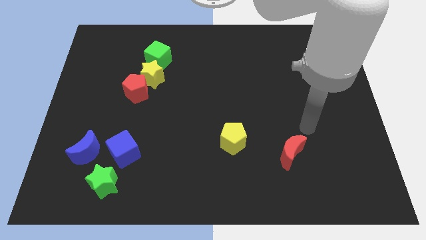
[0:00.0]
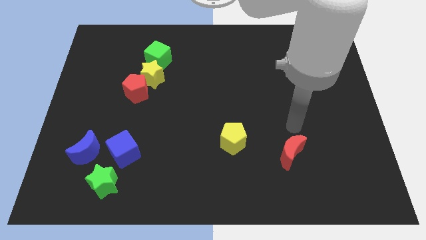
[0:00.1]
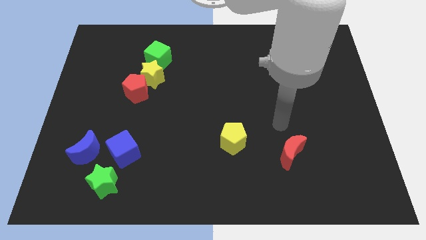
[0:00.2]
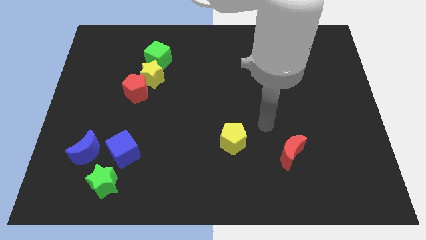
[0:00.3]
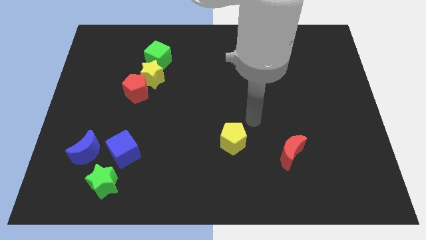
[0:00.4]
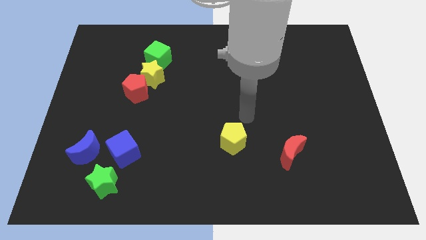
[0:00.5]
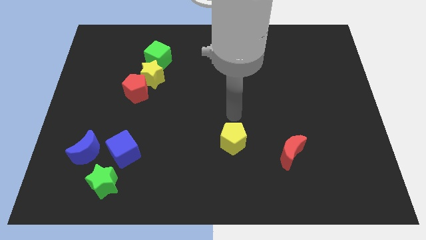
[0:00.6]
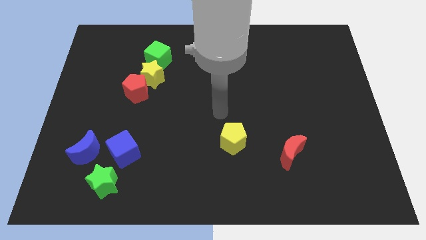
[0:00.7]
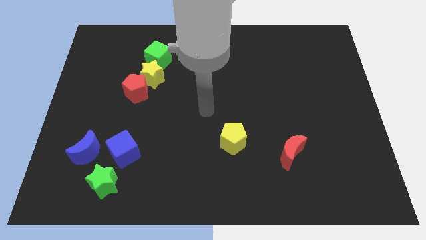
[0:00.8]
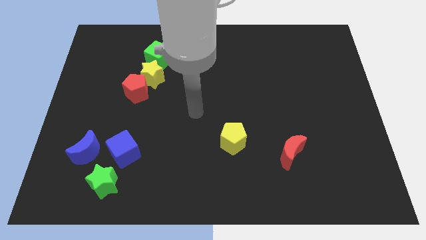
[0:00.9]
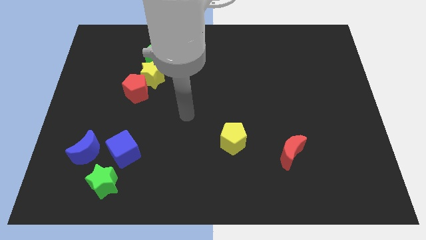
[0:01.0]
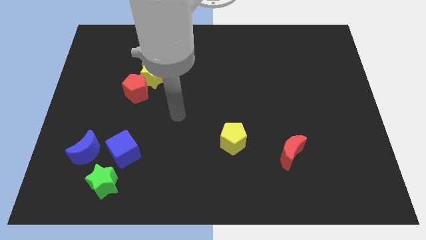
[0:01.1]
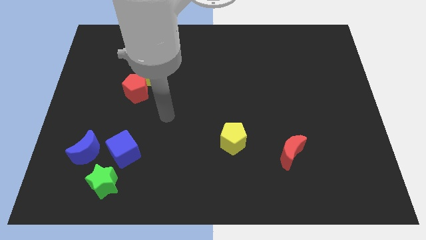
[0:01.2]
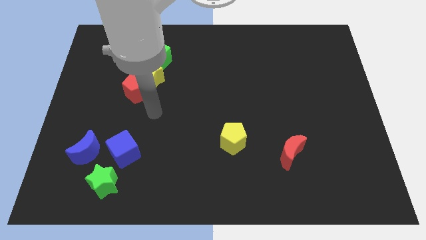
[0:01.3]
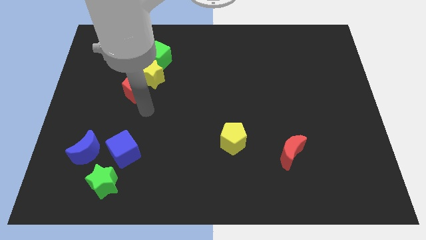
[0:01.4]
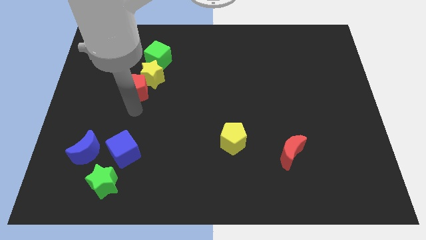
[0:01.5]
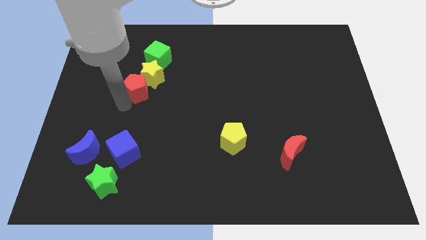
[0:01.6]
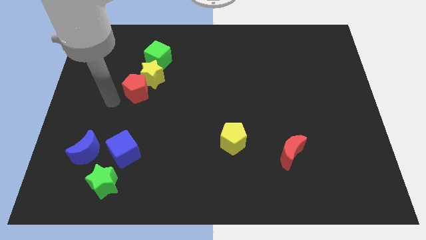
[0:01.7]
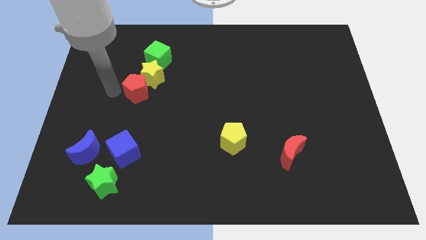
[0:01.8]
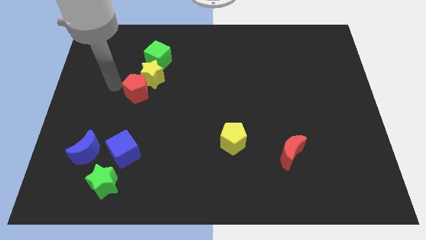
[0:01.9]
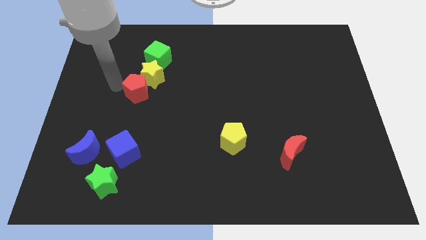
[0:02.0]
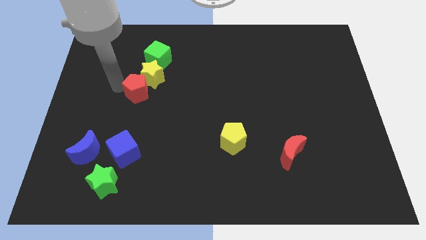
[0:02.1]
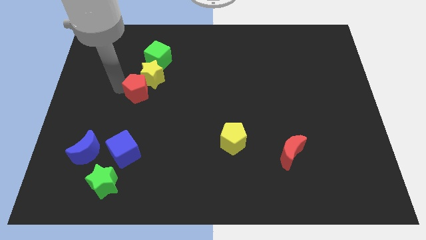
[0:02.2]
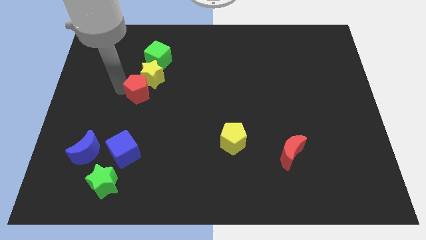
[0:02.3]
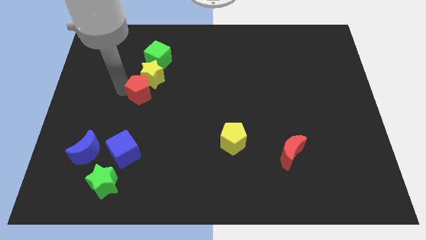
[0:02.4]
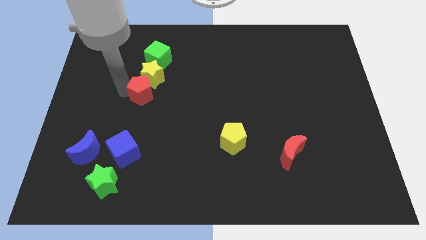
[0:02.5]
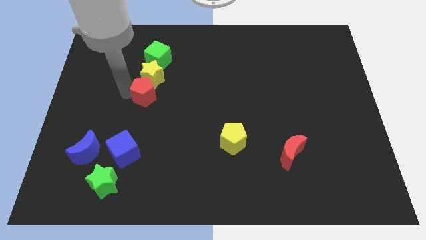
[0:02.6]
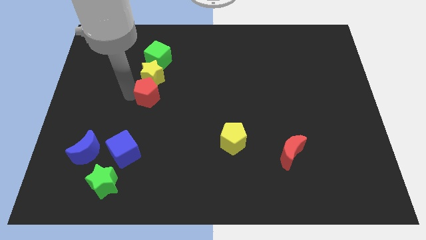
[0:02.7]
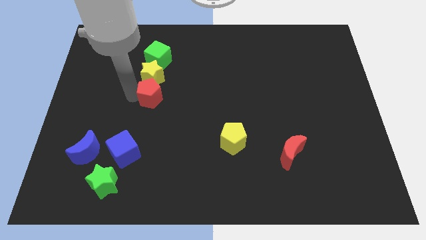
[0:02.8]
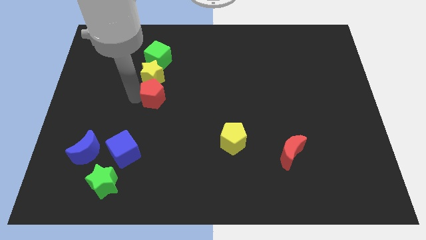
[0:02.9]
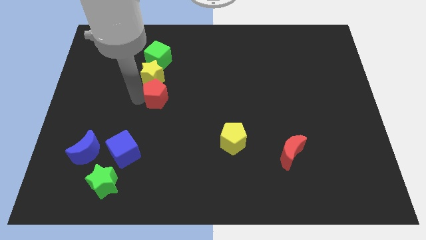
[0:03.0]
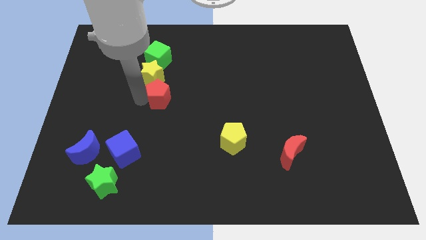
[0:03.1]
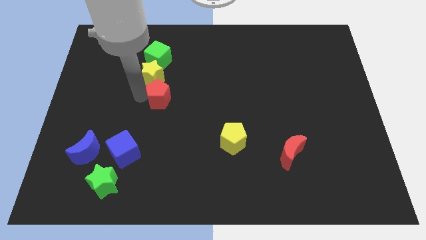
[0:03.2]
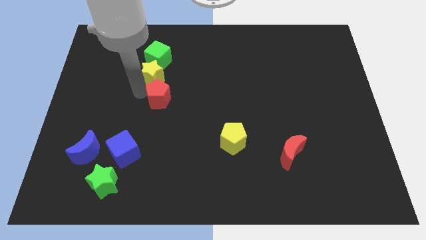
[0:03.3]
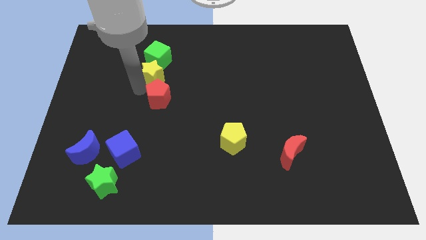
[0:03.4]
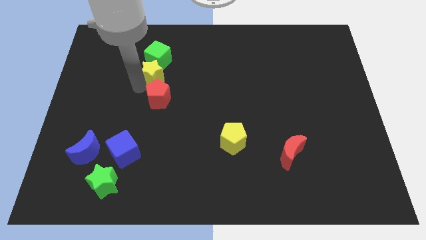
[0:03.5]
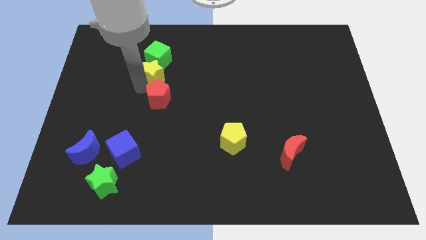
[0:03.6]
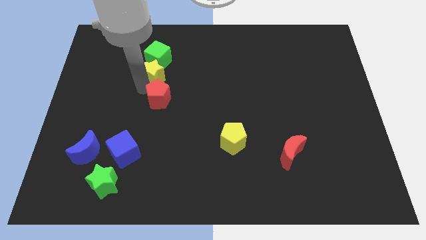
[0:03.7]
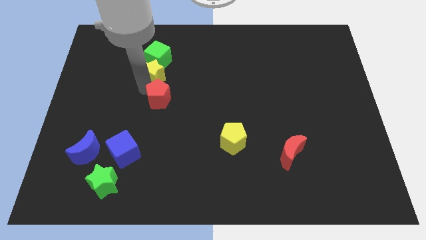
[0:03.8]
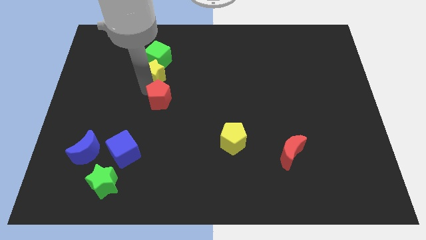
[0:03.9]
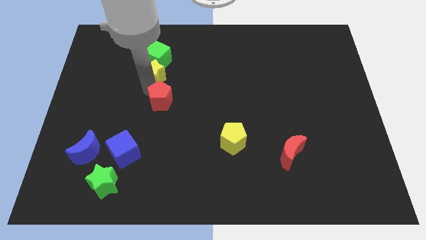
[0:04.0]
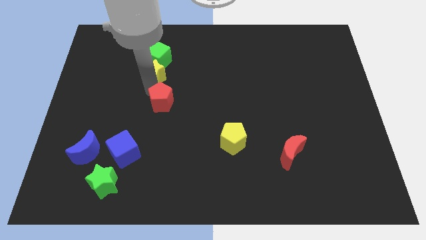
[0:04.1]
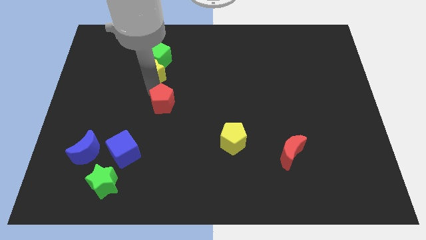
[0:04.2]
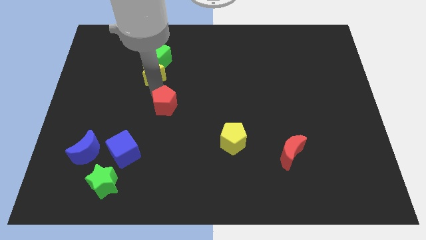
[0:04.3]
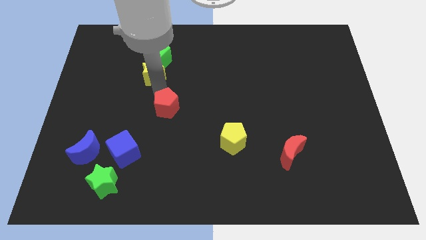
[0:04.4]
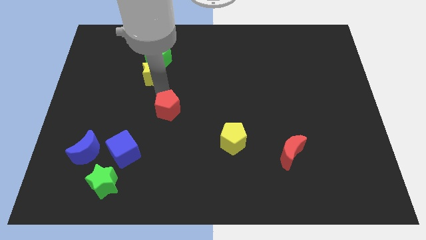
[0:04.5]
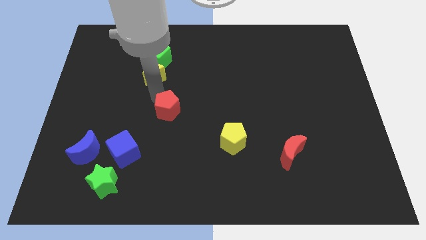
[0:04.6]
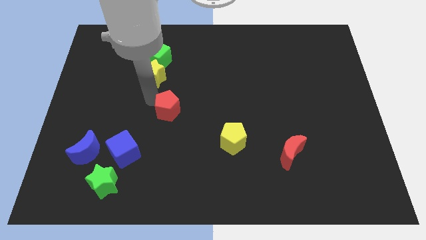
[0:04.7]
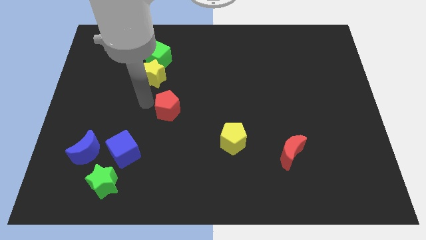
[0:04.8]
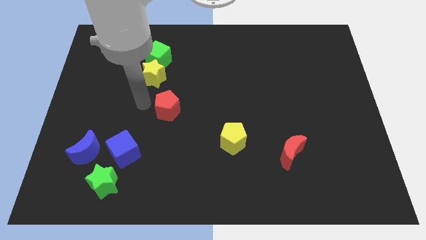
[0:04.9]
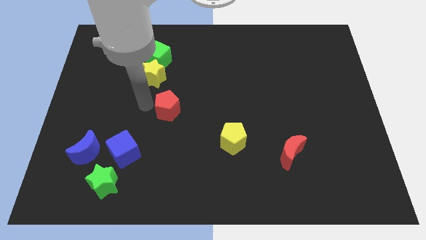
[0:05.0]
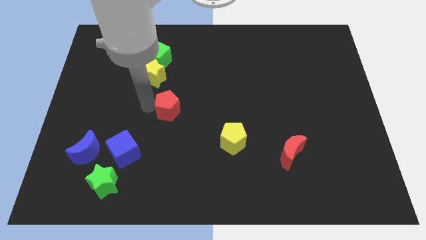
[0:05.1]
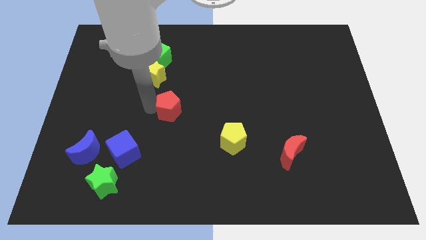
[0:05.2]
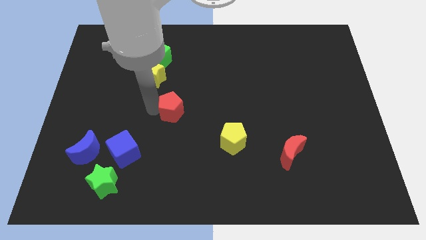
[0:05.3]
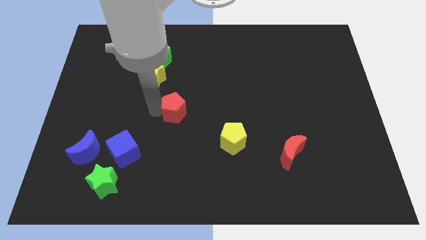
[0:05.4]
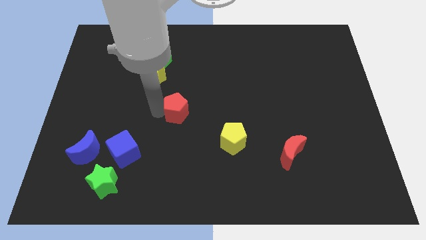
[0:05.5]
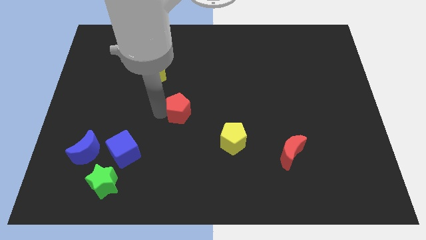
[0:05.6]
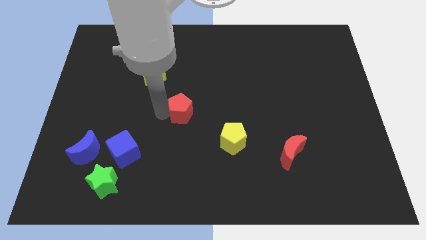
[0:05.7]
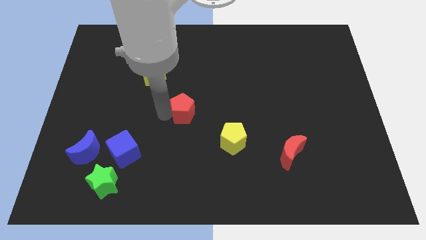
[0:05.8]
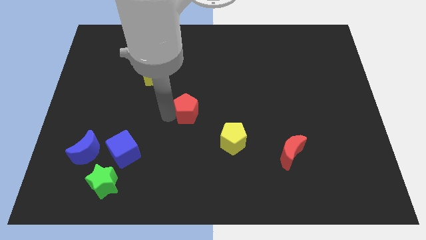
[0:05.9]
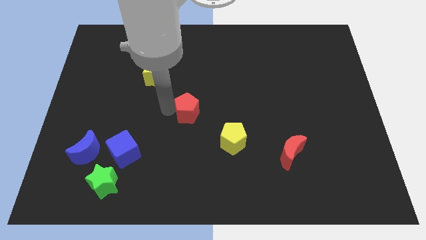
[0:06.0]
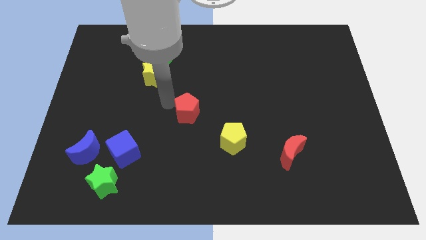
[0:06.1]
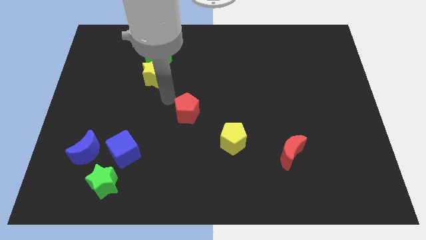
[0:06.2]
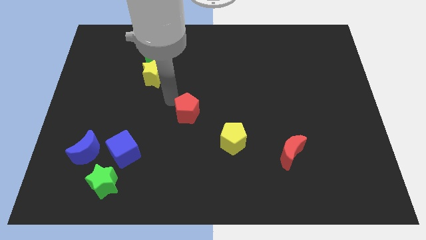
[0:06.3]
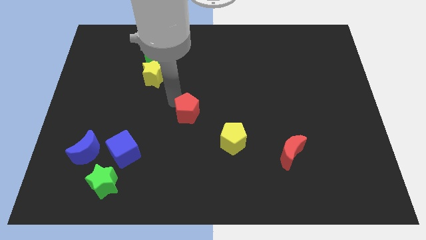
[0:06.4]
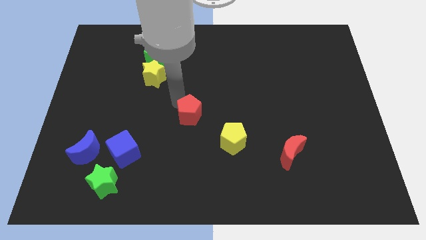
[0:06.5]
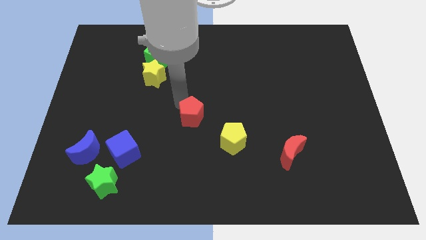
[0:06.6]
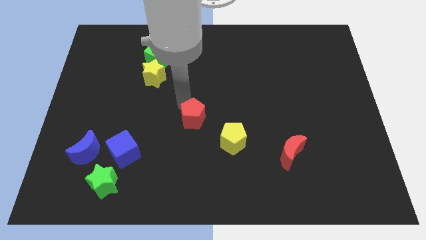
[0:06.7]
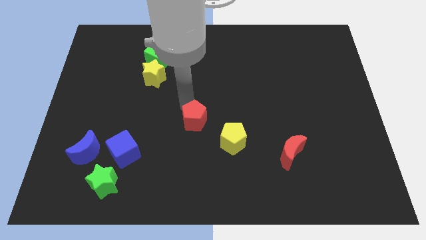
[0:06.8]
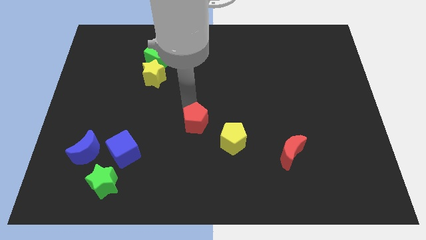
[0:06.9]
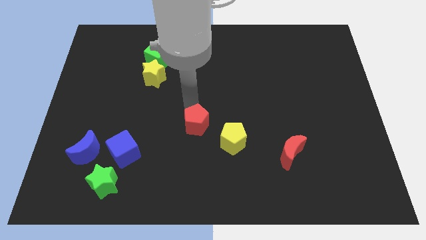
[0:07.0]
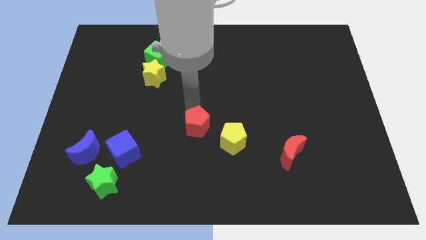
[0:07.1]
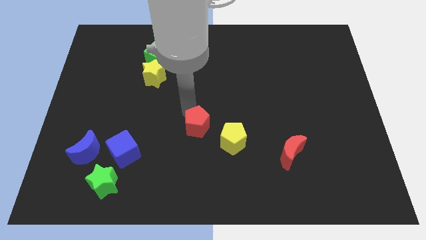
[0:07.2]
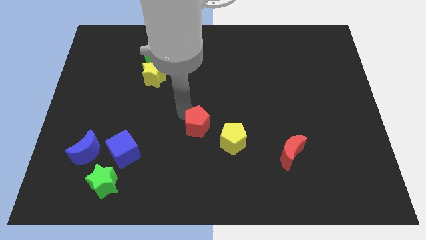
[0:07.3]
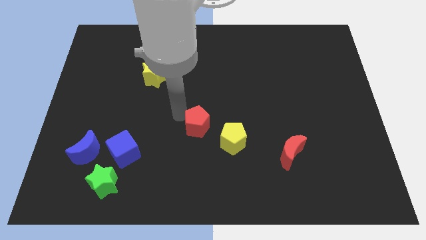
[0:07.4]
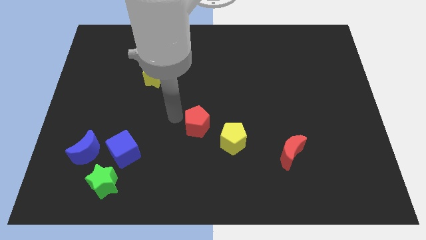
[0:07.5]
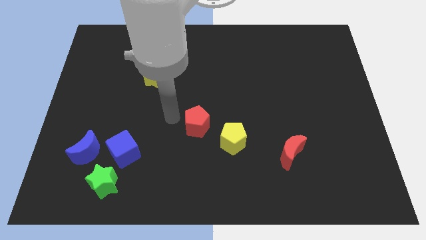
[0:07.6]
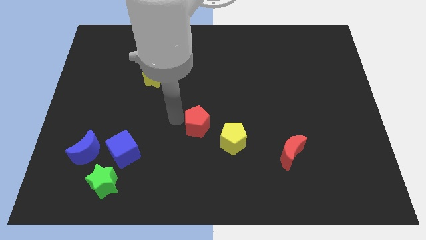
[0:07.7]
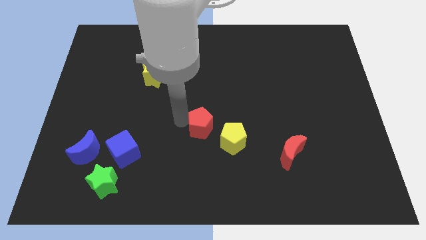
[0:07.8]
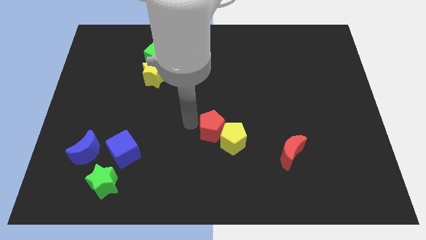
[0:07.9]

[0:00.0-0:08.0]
slide the red pentagon next to the yellow pentagon
